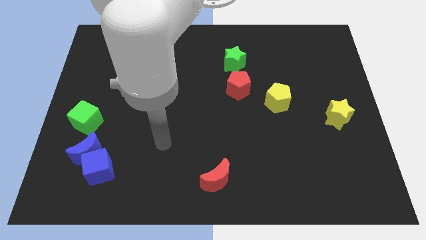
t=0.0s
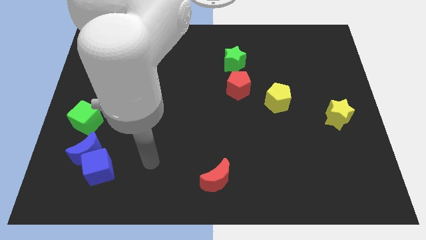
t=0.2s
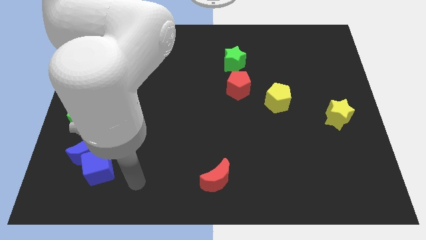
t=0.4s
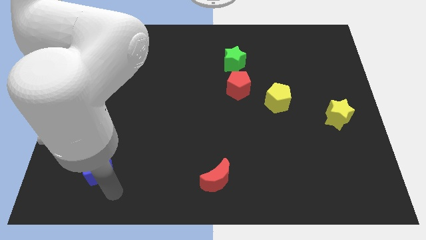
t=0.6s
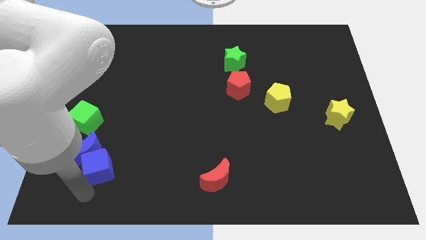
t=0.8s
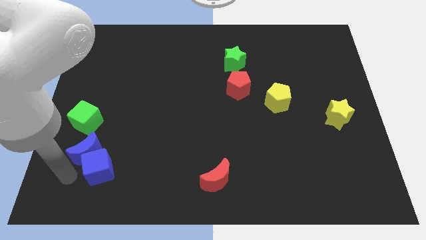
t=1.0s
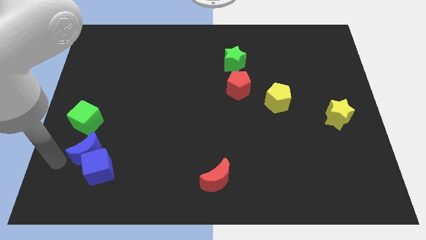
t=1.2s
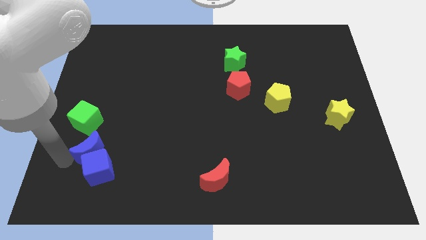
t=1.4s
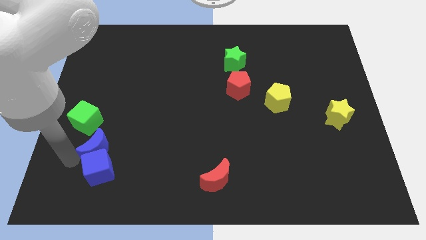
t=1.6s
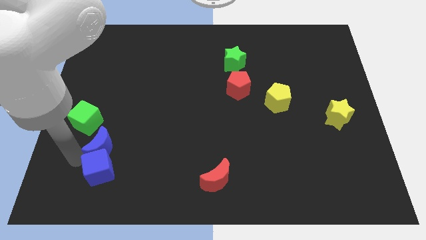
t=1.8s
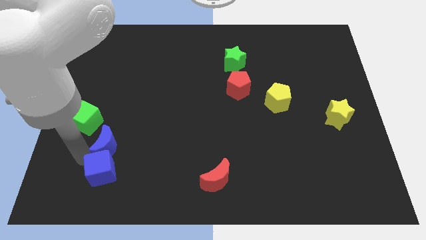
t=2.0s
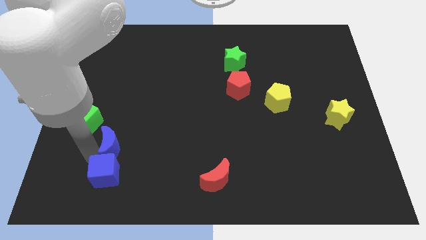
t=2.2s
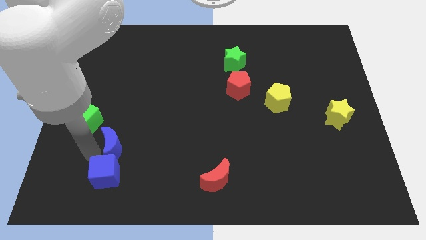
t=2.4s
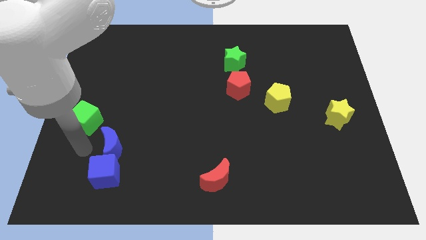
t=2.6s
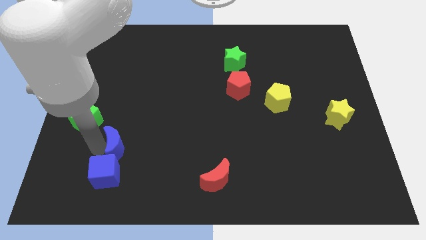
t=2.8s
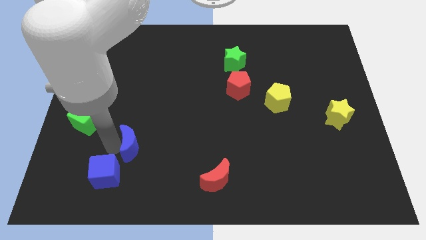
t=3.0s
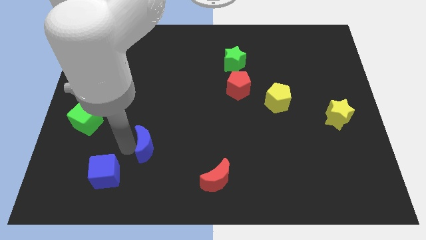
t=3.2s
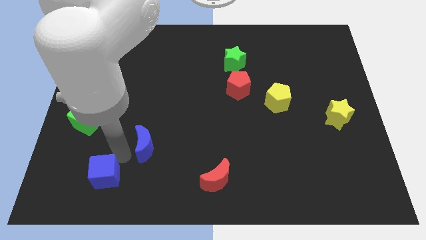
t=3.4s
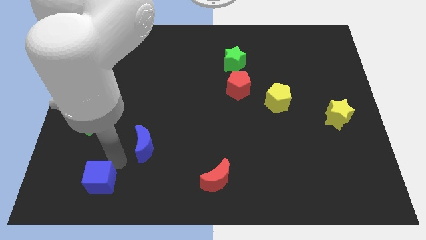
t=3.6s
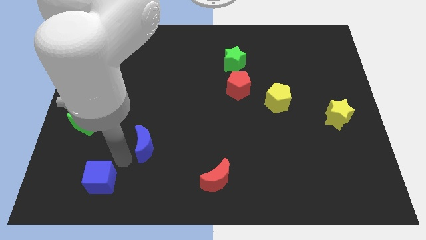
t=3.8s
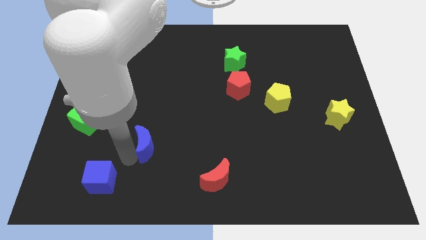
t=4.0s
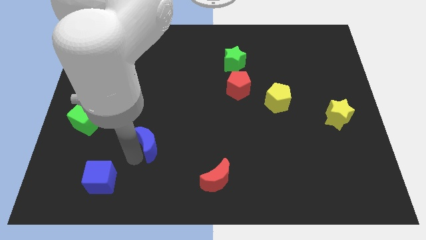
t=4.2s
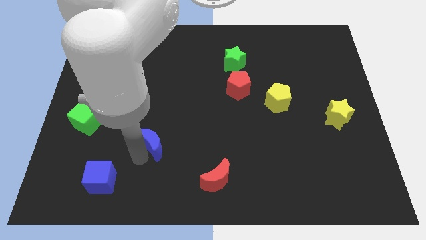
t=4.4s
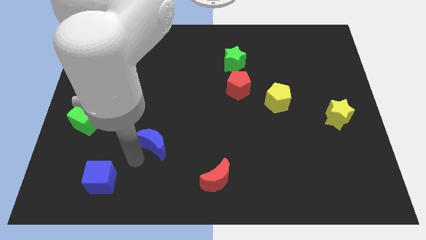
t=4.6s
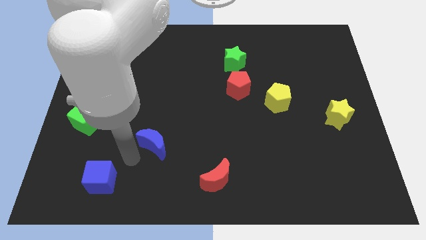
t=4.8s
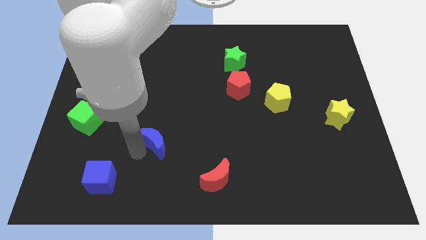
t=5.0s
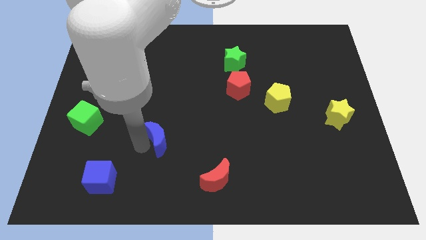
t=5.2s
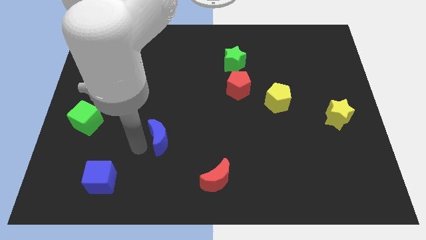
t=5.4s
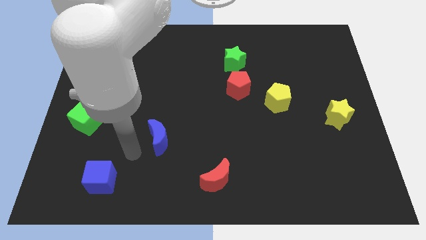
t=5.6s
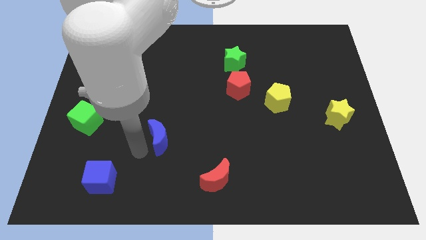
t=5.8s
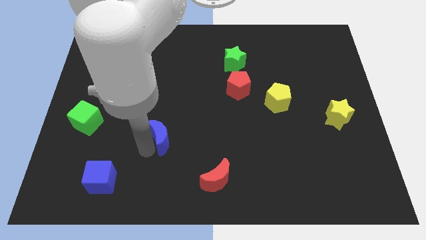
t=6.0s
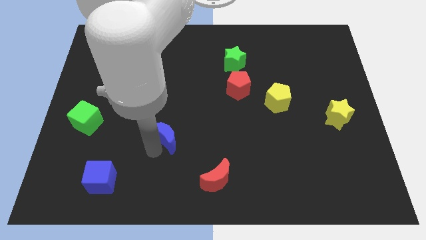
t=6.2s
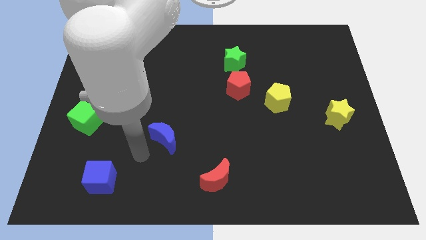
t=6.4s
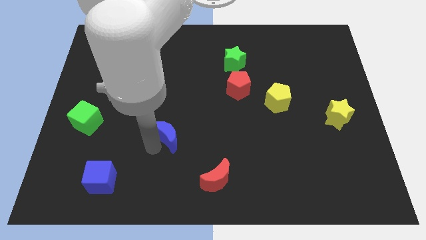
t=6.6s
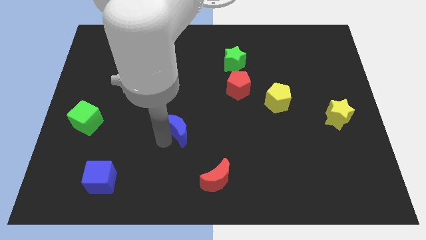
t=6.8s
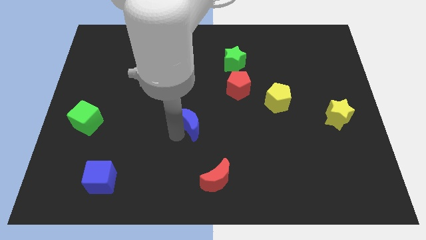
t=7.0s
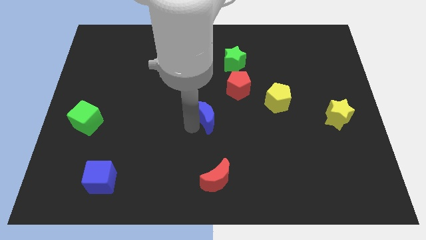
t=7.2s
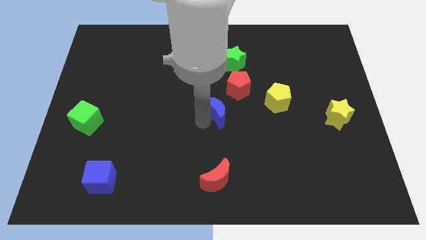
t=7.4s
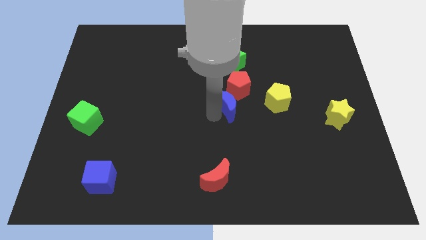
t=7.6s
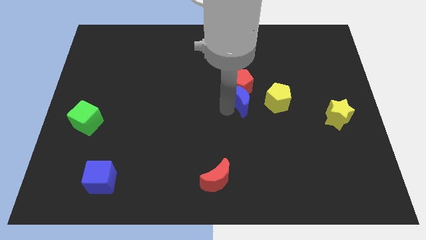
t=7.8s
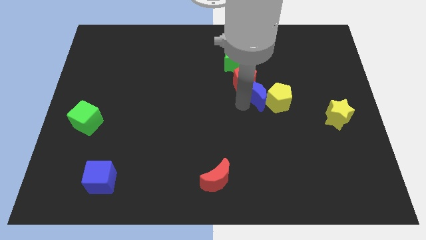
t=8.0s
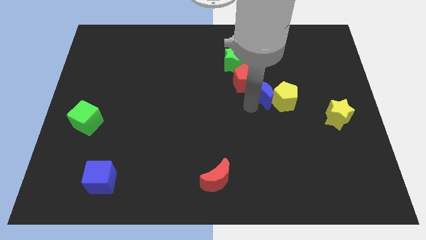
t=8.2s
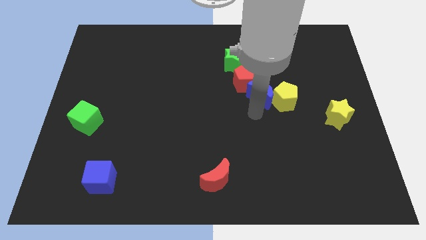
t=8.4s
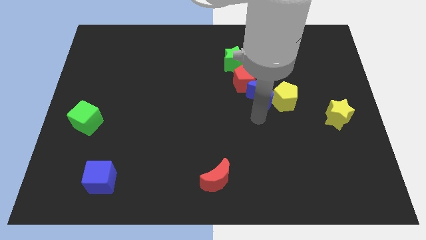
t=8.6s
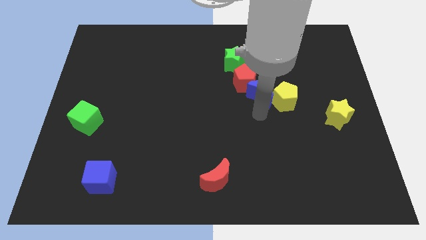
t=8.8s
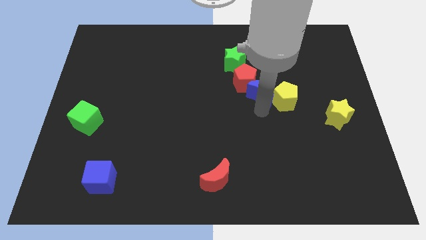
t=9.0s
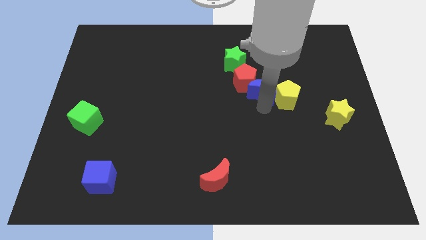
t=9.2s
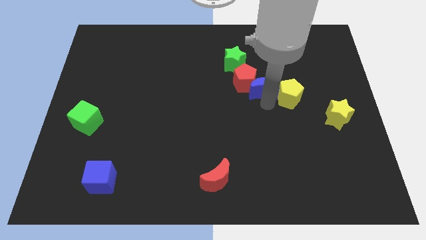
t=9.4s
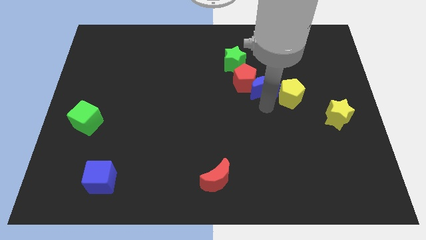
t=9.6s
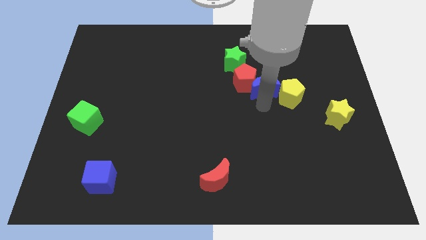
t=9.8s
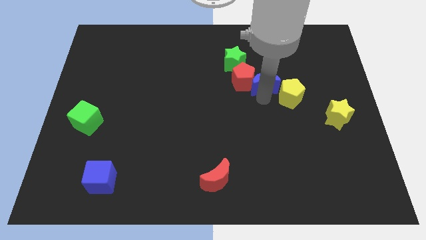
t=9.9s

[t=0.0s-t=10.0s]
move the blue moon to the top right of the red pentagon

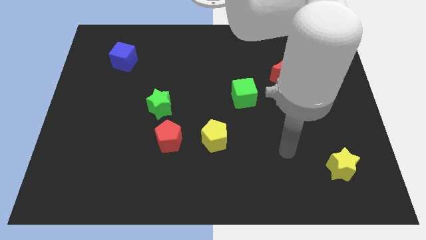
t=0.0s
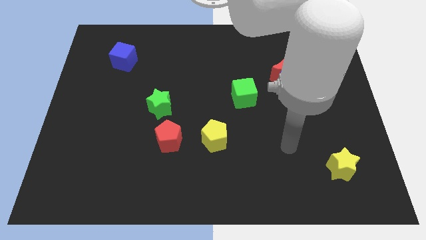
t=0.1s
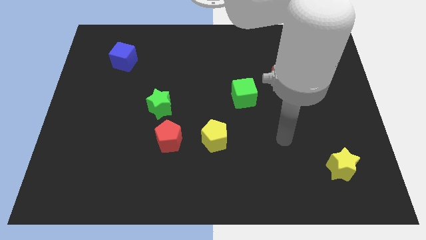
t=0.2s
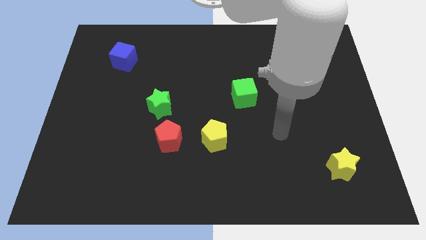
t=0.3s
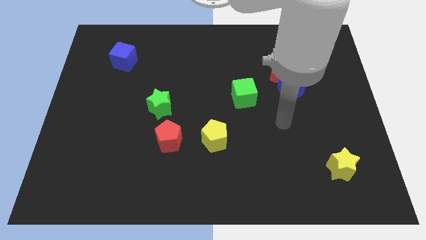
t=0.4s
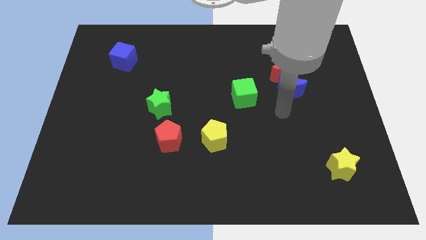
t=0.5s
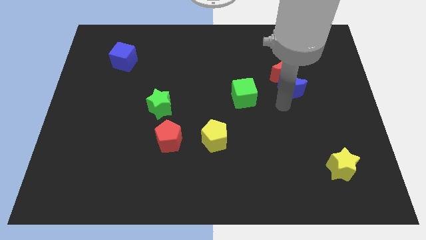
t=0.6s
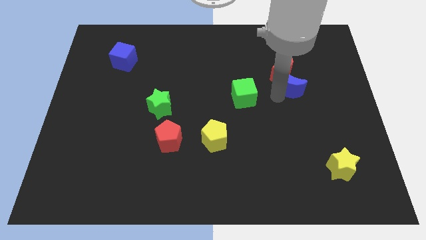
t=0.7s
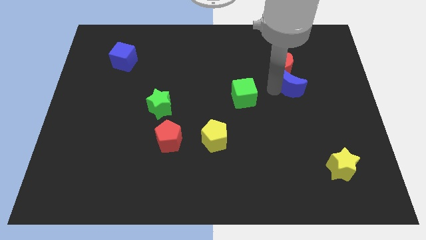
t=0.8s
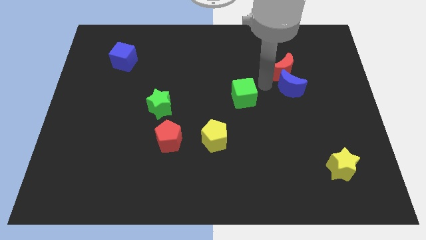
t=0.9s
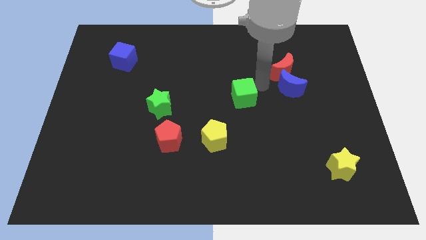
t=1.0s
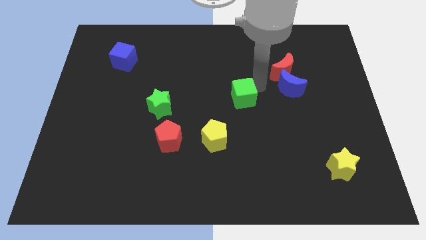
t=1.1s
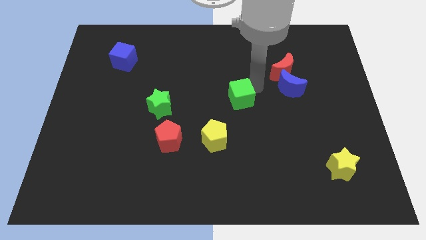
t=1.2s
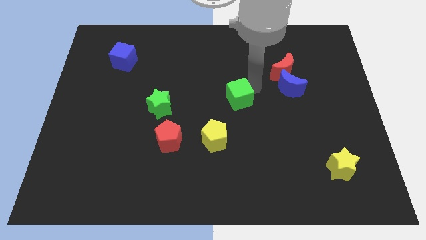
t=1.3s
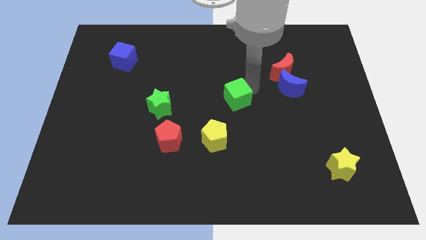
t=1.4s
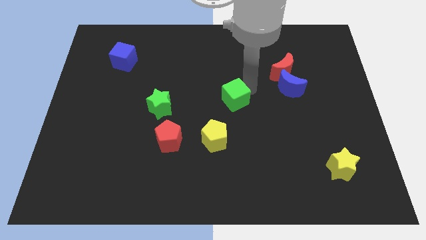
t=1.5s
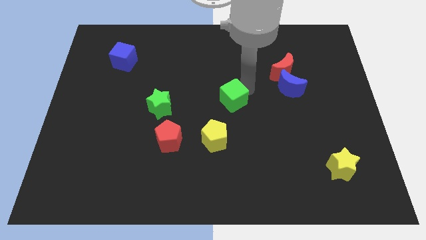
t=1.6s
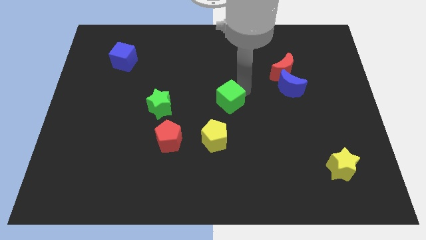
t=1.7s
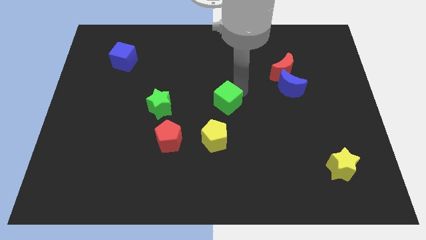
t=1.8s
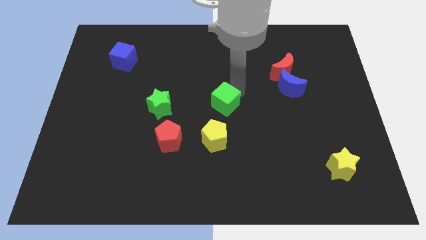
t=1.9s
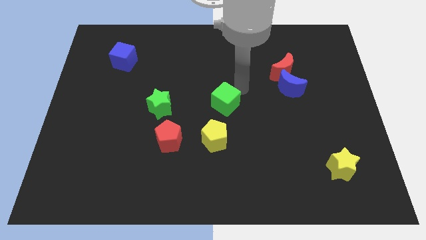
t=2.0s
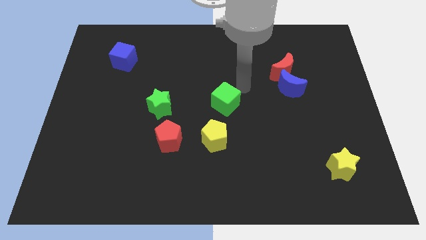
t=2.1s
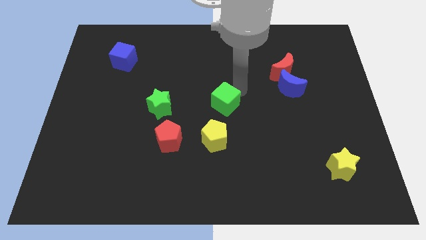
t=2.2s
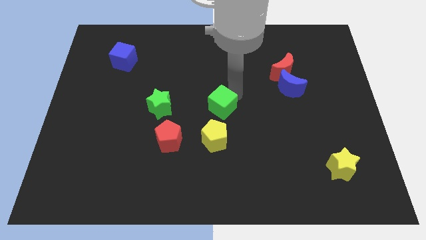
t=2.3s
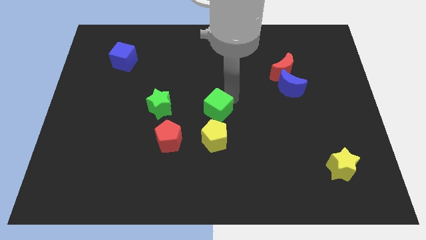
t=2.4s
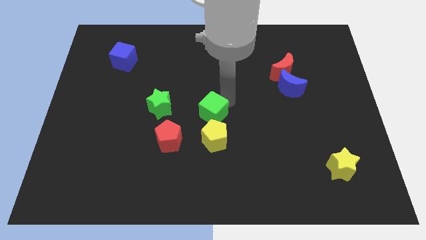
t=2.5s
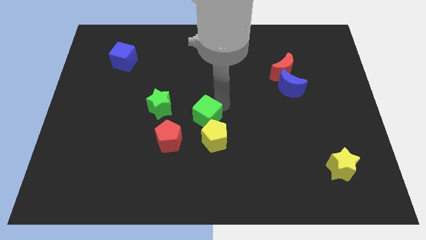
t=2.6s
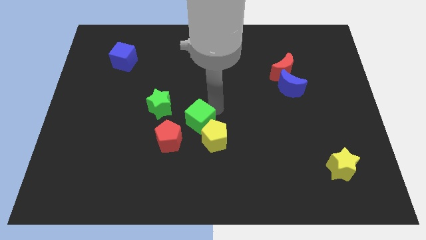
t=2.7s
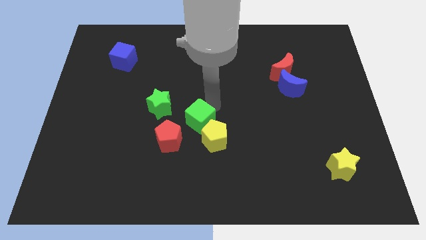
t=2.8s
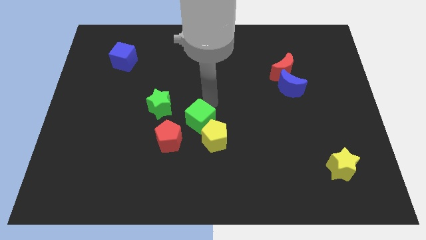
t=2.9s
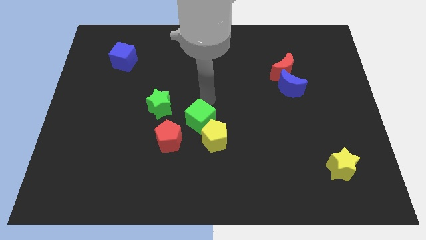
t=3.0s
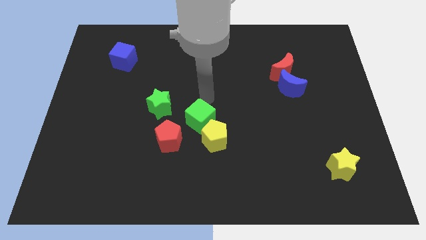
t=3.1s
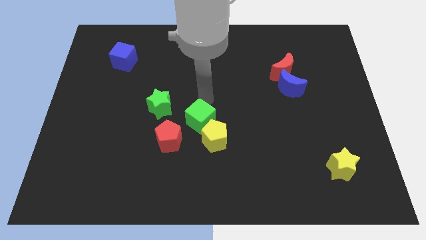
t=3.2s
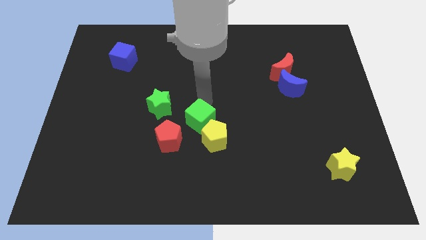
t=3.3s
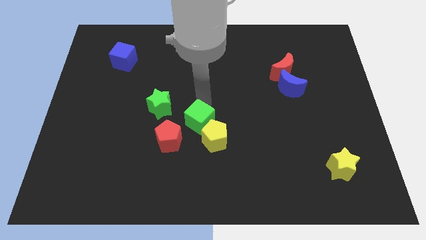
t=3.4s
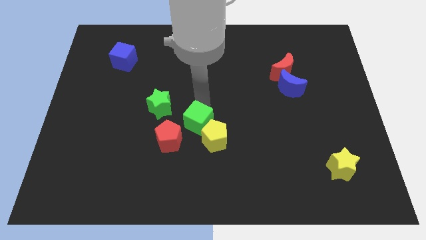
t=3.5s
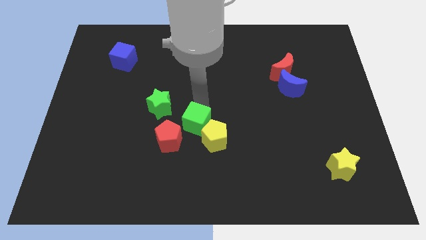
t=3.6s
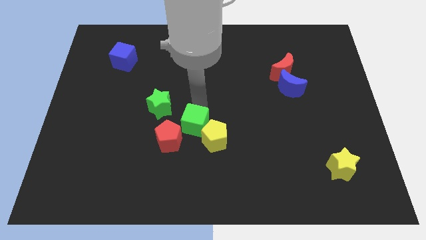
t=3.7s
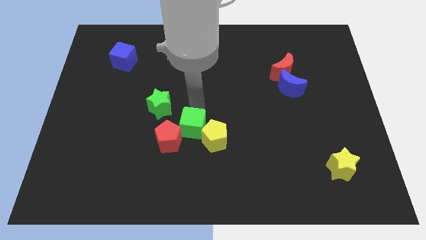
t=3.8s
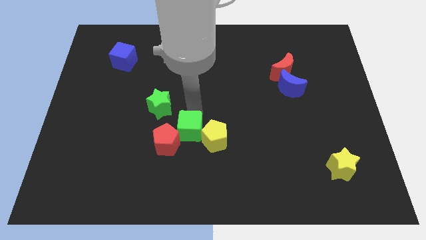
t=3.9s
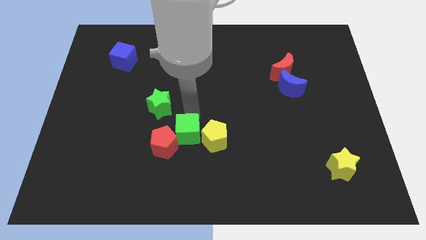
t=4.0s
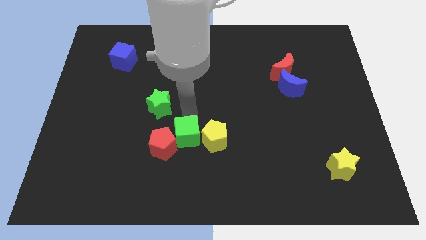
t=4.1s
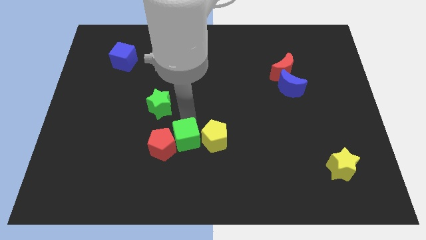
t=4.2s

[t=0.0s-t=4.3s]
slide the green cube to the bottom left of the yellow pentagon
